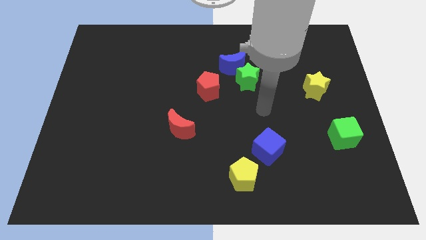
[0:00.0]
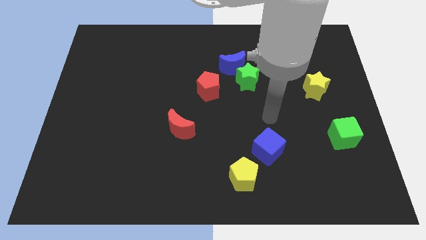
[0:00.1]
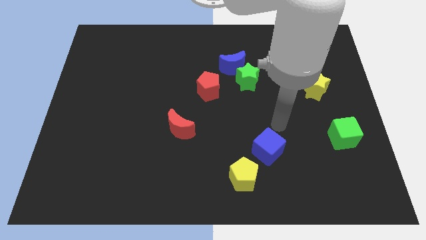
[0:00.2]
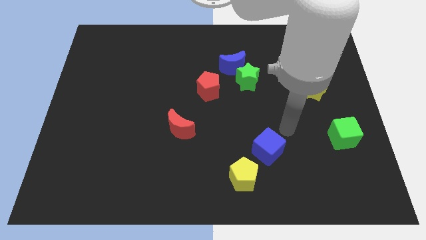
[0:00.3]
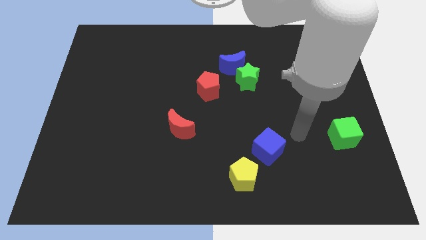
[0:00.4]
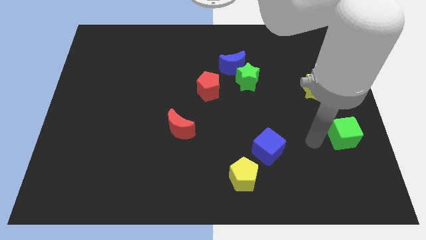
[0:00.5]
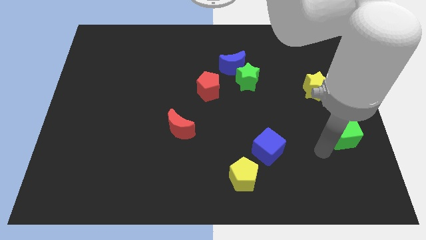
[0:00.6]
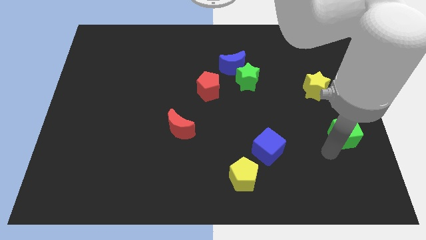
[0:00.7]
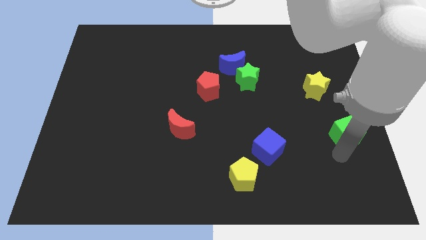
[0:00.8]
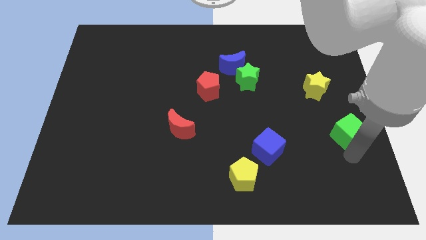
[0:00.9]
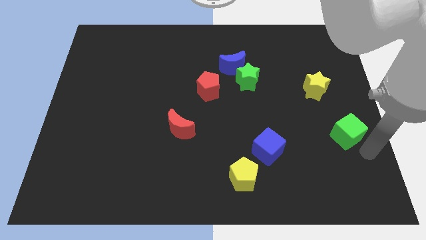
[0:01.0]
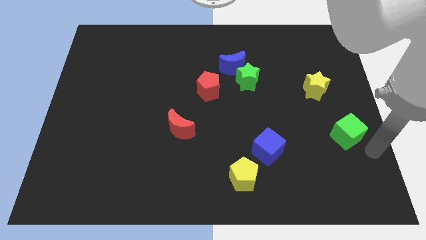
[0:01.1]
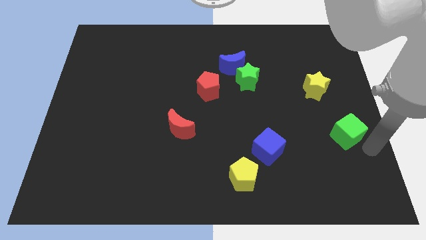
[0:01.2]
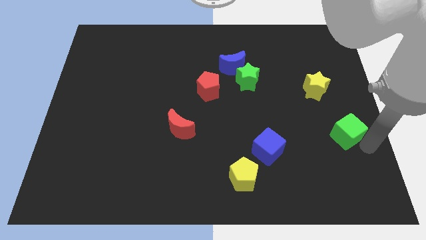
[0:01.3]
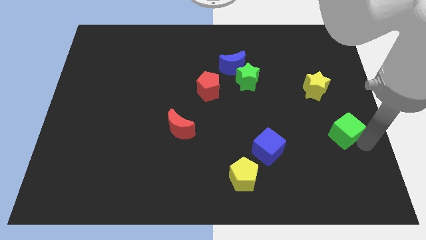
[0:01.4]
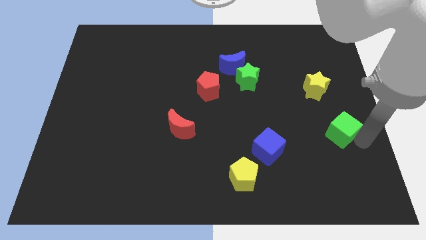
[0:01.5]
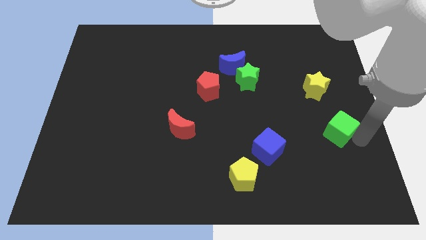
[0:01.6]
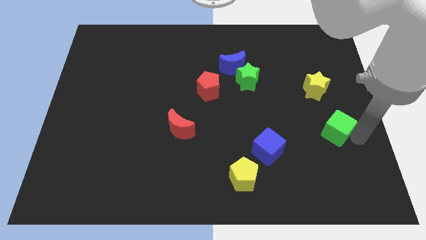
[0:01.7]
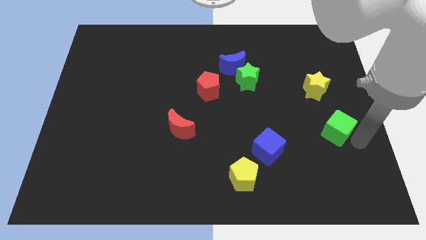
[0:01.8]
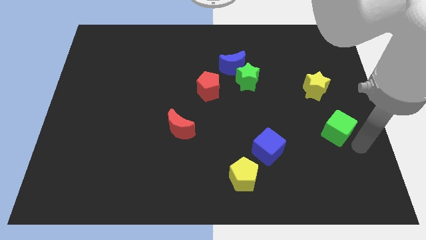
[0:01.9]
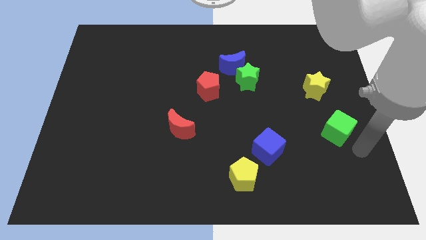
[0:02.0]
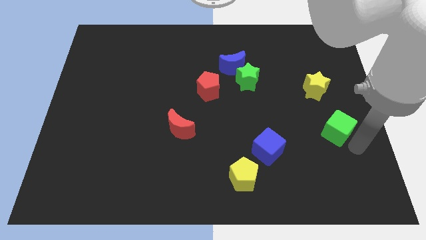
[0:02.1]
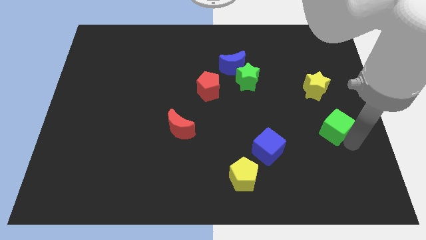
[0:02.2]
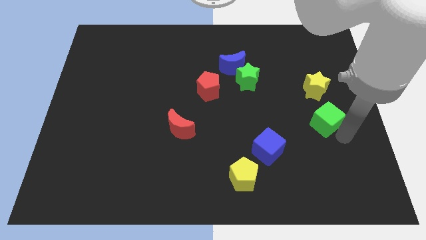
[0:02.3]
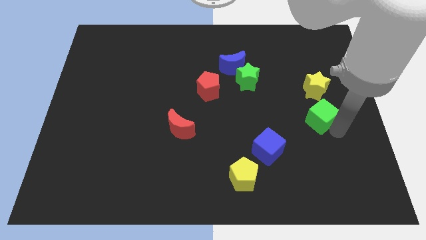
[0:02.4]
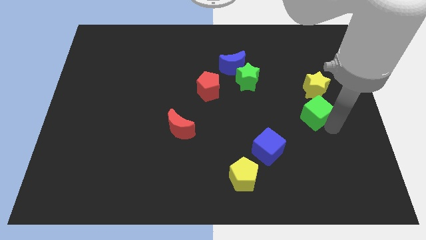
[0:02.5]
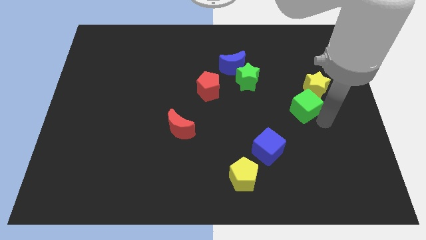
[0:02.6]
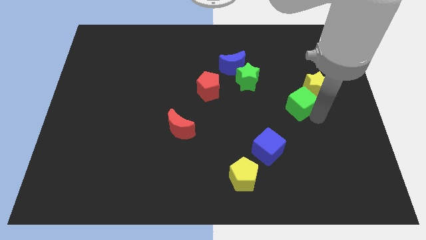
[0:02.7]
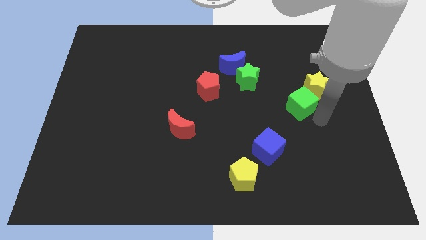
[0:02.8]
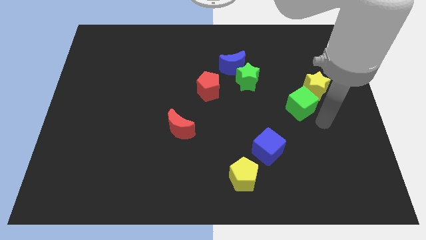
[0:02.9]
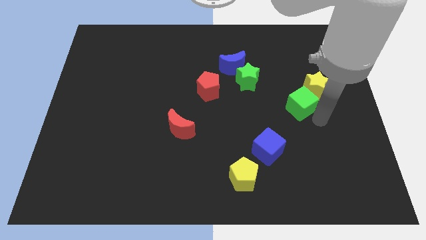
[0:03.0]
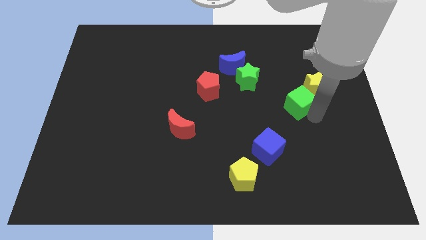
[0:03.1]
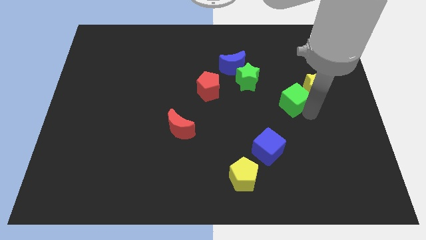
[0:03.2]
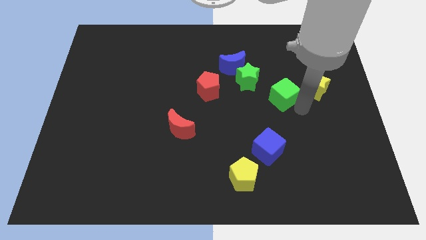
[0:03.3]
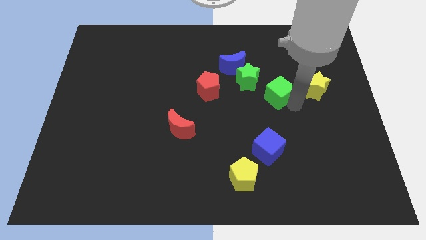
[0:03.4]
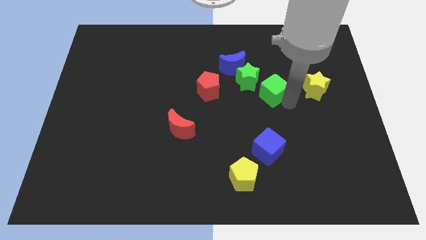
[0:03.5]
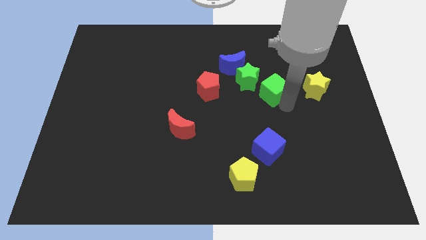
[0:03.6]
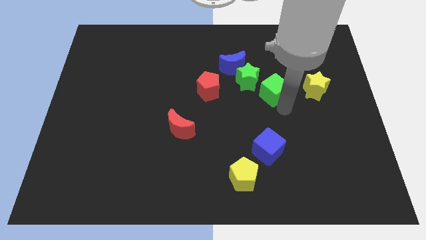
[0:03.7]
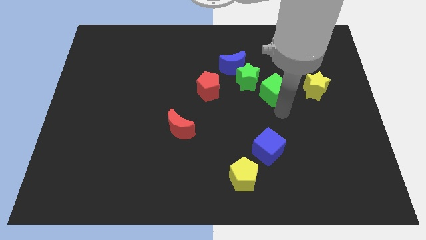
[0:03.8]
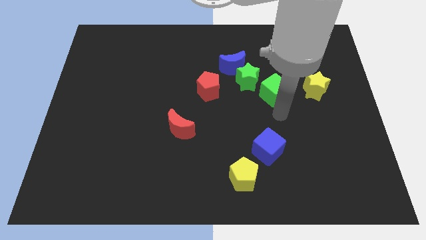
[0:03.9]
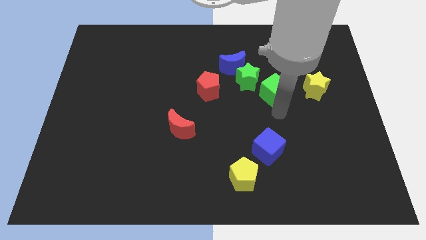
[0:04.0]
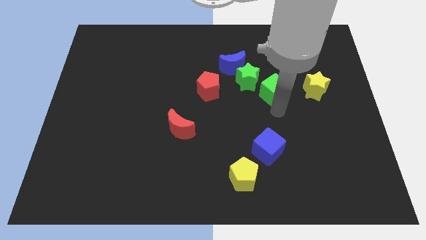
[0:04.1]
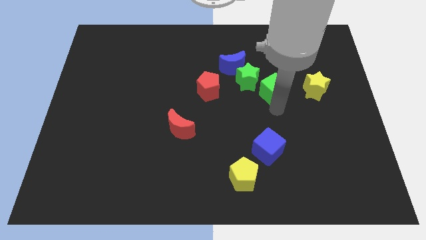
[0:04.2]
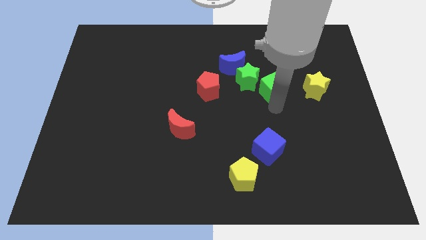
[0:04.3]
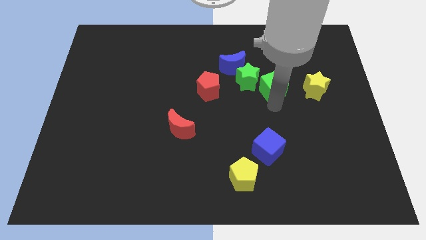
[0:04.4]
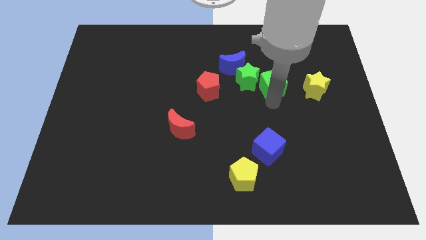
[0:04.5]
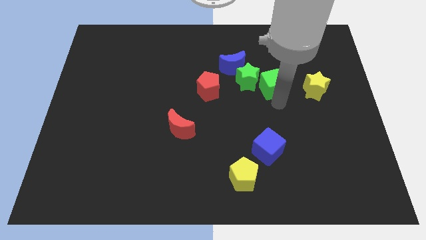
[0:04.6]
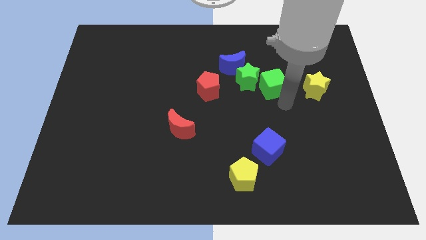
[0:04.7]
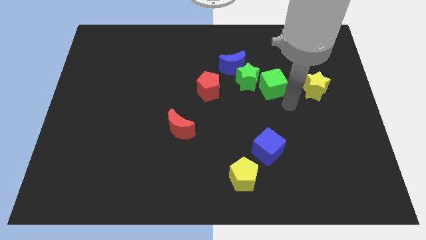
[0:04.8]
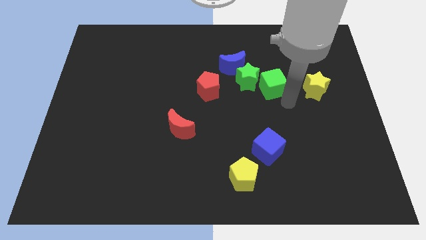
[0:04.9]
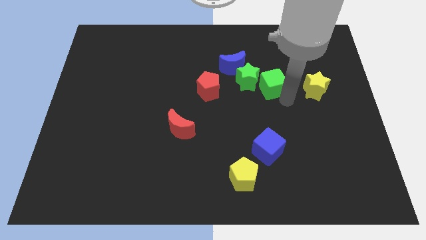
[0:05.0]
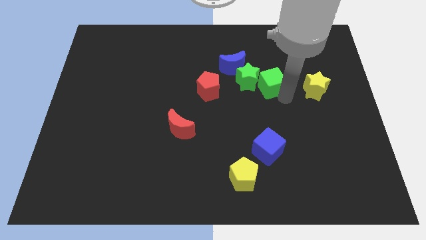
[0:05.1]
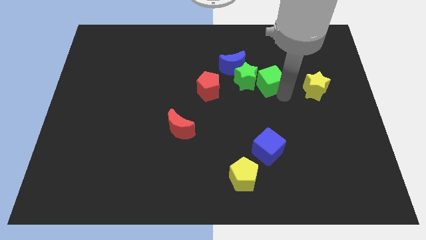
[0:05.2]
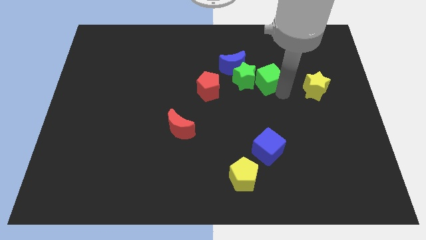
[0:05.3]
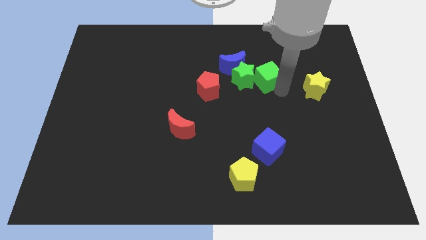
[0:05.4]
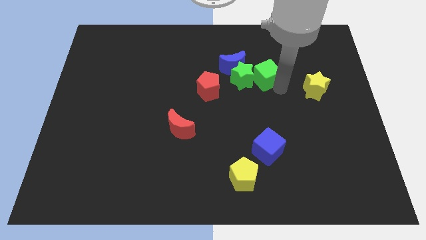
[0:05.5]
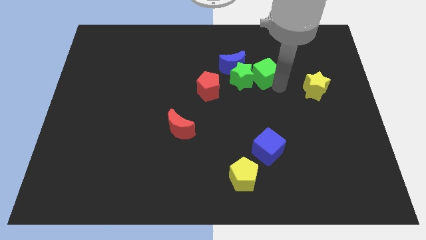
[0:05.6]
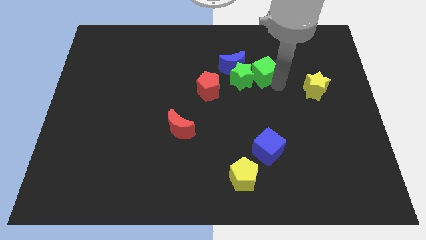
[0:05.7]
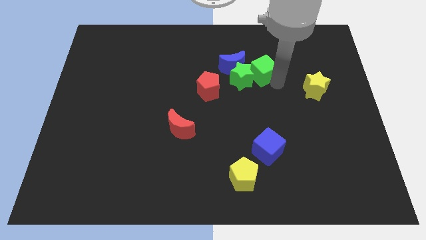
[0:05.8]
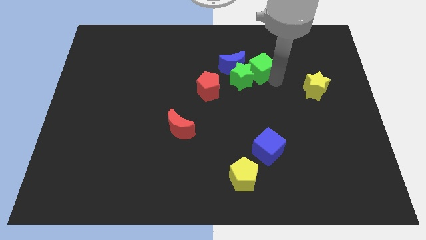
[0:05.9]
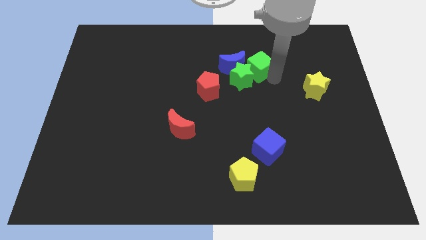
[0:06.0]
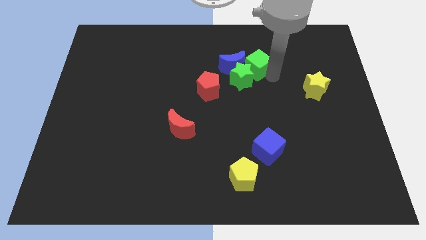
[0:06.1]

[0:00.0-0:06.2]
move the green cube next to the blue moon

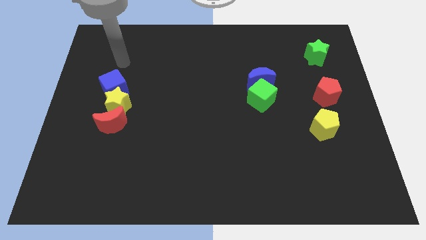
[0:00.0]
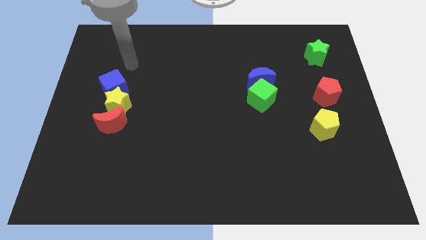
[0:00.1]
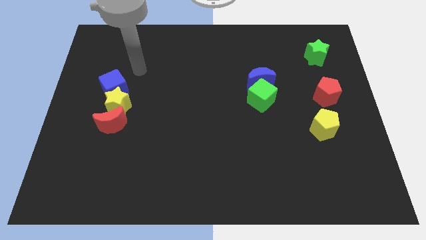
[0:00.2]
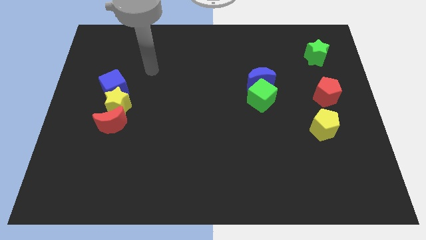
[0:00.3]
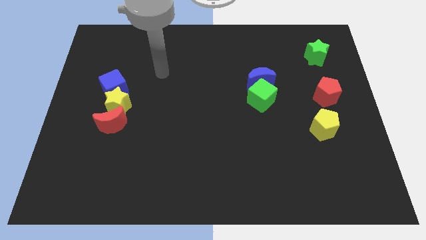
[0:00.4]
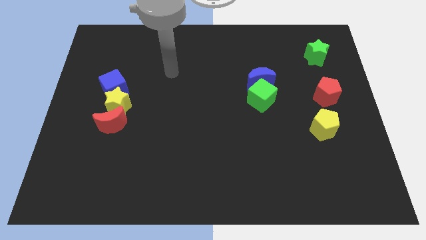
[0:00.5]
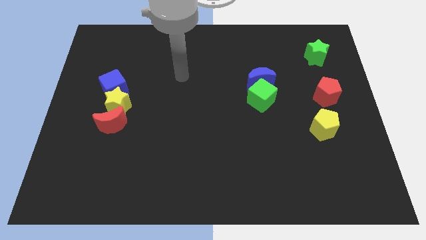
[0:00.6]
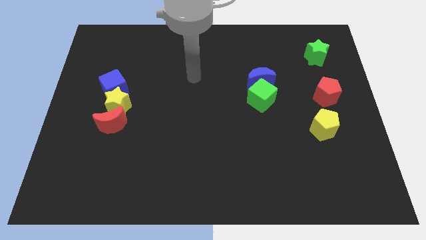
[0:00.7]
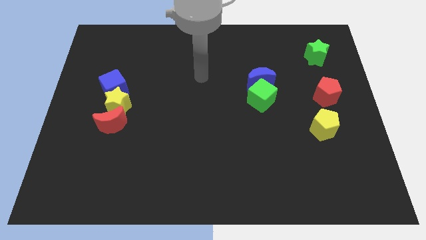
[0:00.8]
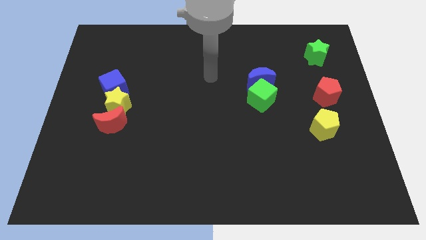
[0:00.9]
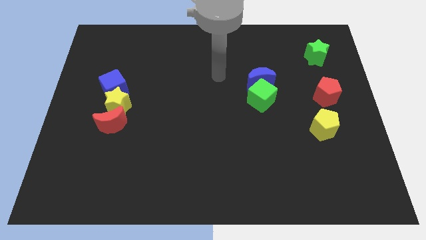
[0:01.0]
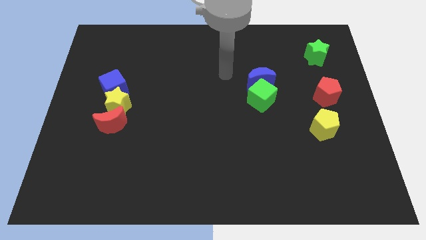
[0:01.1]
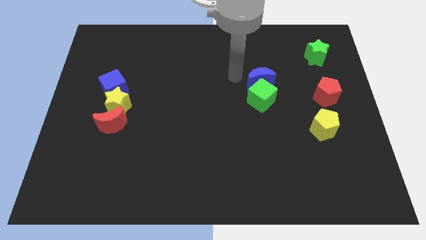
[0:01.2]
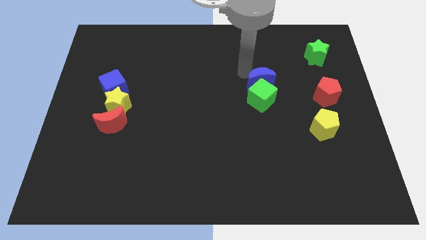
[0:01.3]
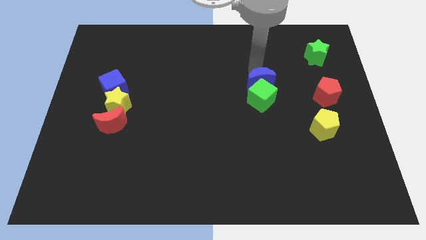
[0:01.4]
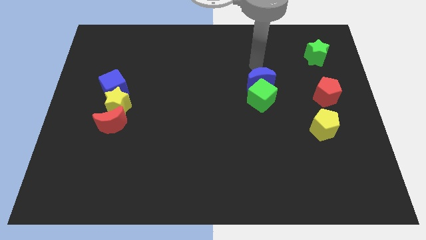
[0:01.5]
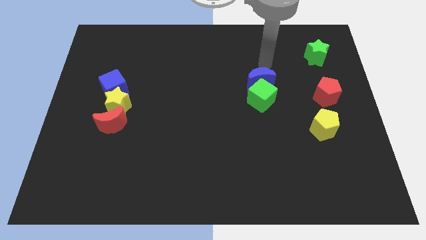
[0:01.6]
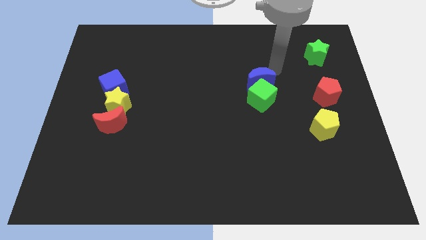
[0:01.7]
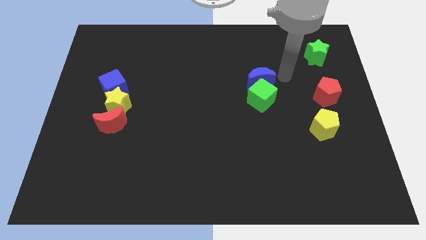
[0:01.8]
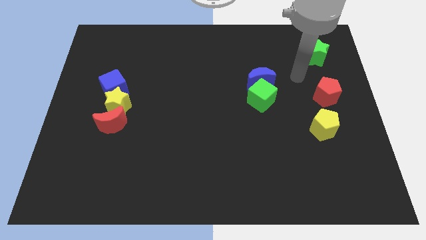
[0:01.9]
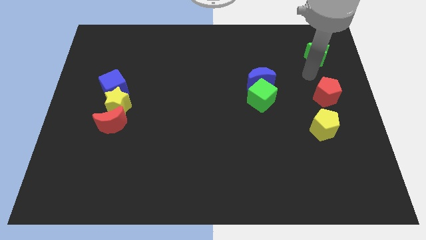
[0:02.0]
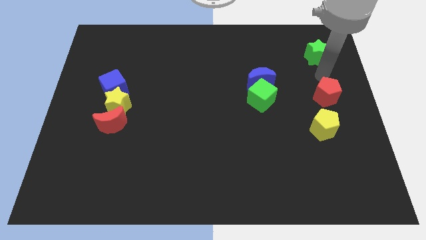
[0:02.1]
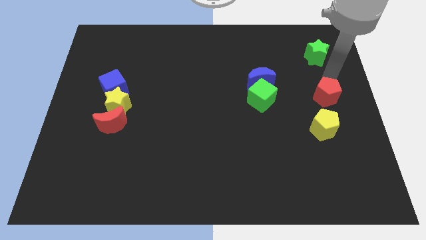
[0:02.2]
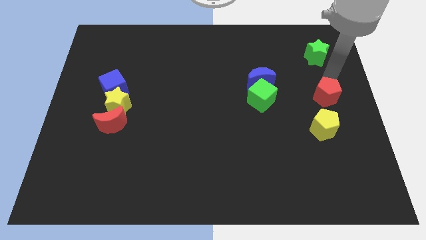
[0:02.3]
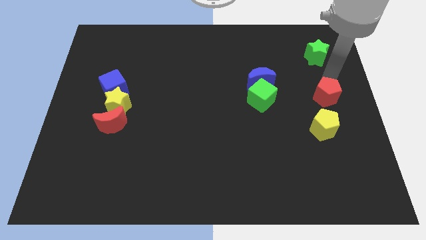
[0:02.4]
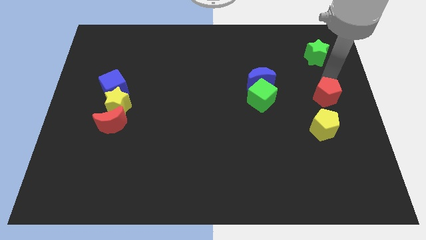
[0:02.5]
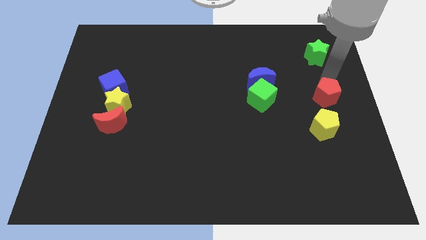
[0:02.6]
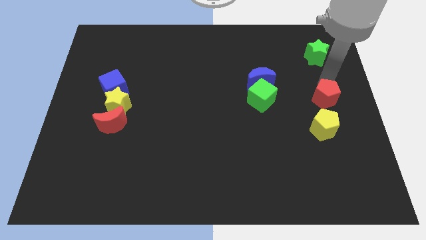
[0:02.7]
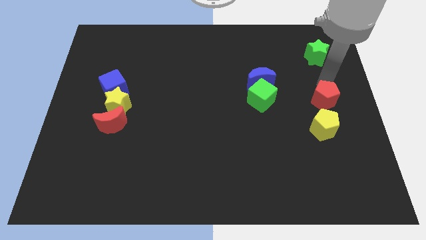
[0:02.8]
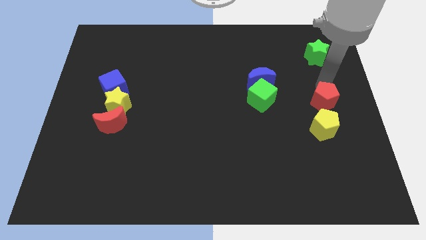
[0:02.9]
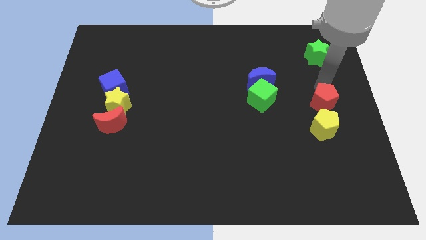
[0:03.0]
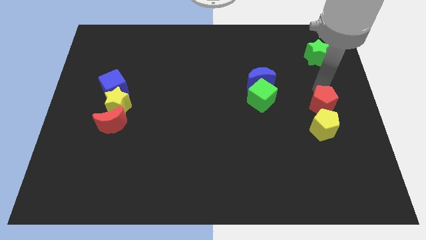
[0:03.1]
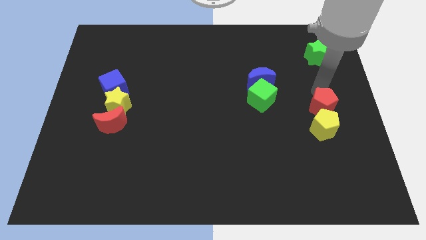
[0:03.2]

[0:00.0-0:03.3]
move the red pentagon close to the yellow pentagon
